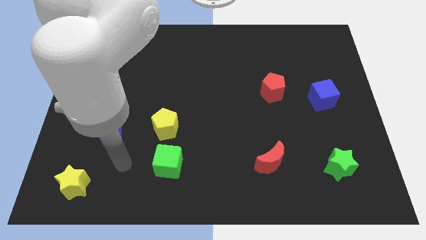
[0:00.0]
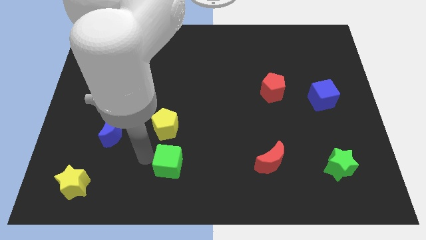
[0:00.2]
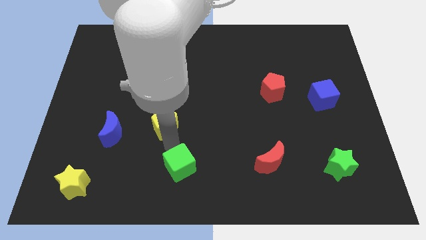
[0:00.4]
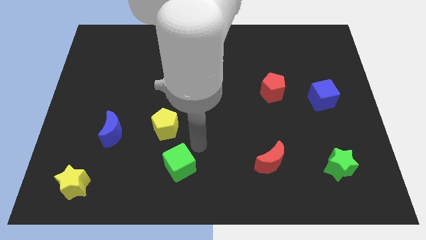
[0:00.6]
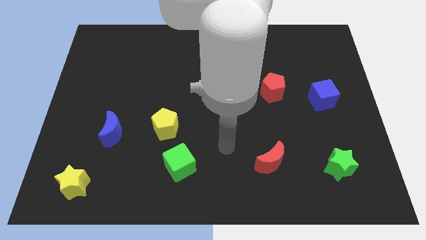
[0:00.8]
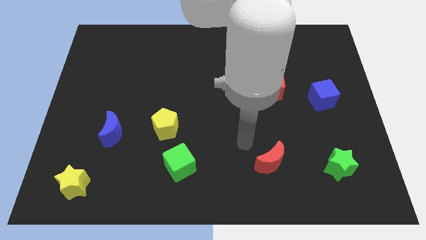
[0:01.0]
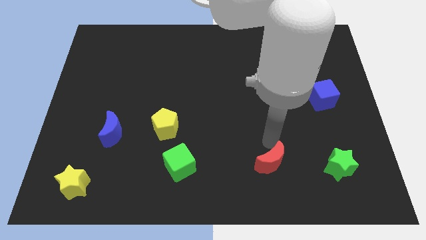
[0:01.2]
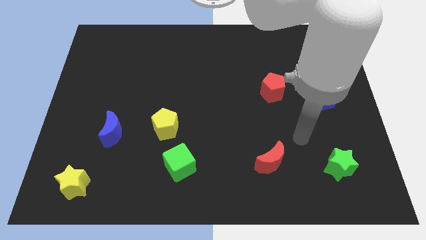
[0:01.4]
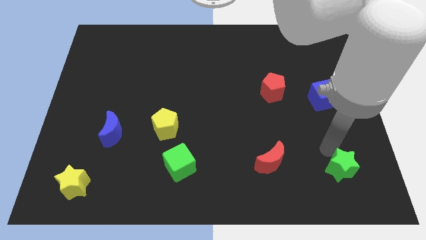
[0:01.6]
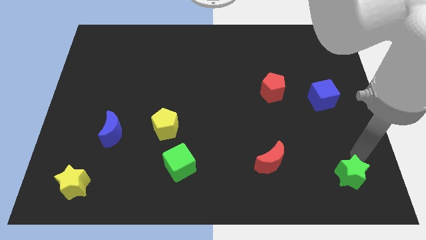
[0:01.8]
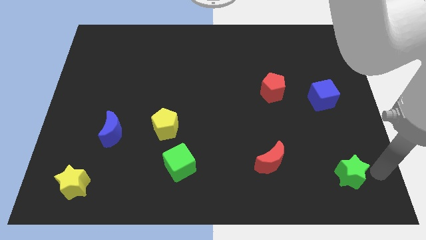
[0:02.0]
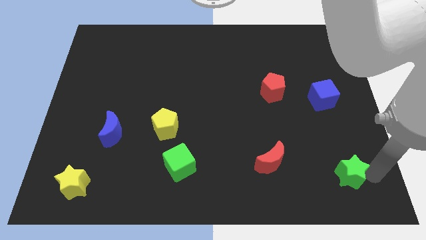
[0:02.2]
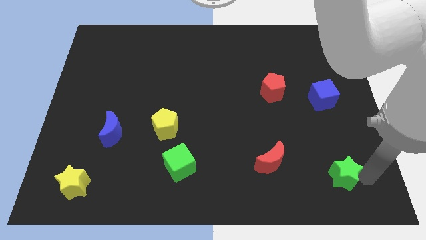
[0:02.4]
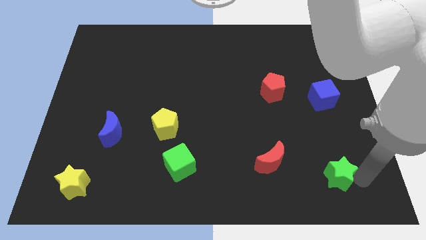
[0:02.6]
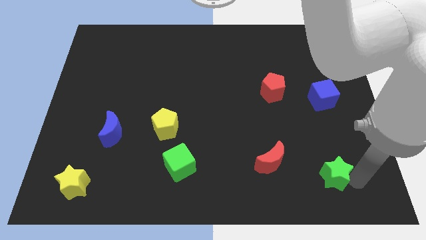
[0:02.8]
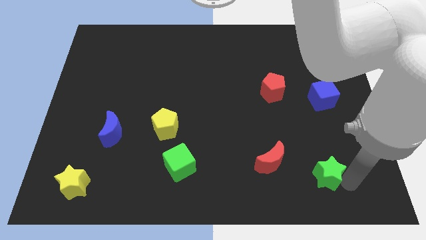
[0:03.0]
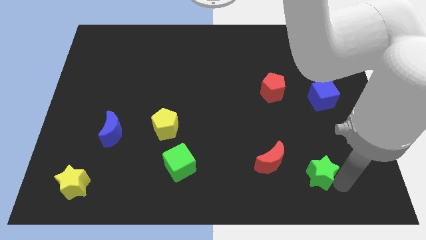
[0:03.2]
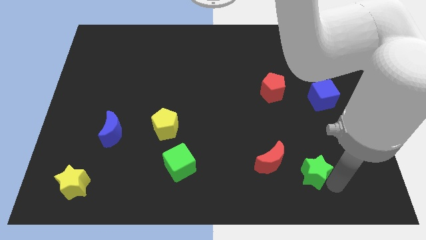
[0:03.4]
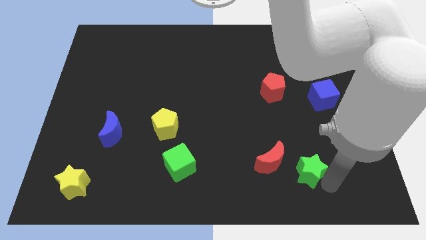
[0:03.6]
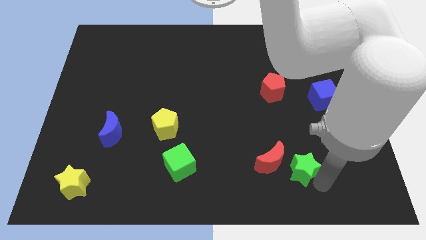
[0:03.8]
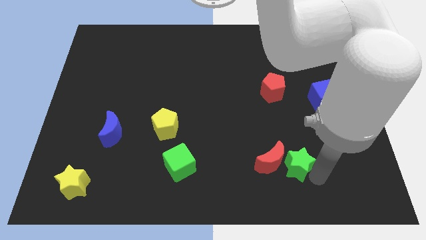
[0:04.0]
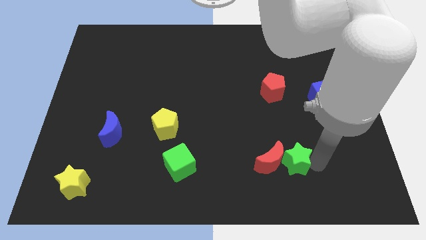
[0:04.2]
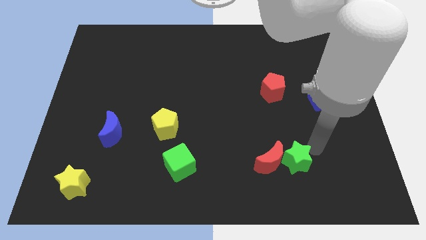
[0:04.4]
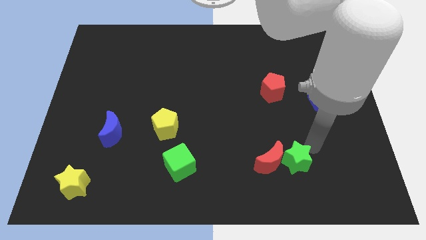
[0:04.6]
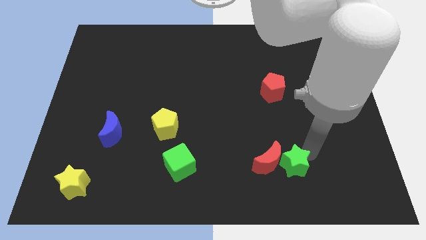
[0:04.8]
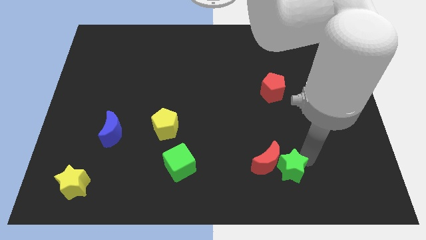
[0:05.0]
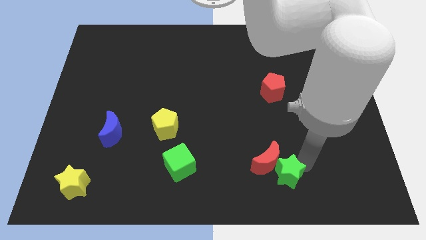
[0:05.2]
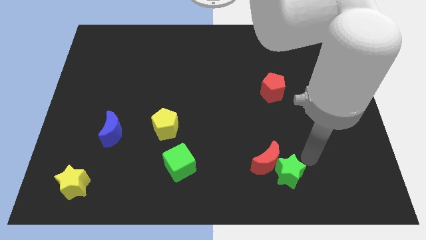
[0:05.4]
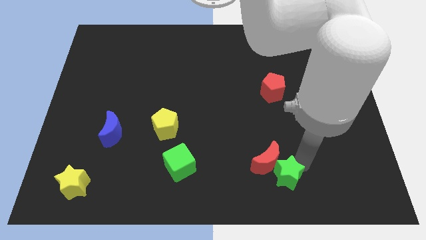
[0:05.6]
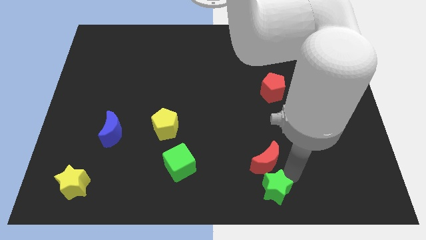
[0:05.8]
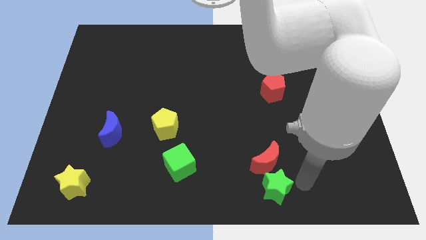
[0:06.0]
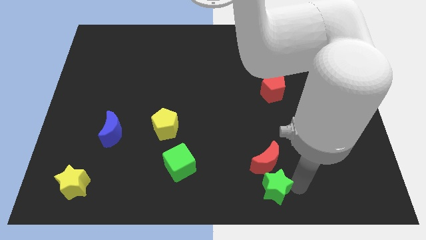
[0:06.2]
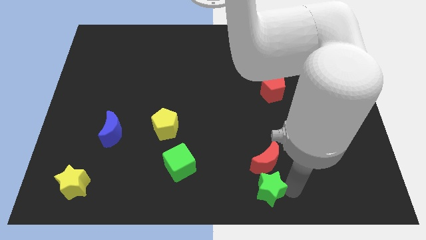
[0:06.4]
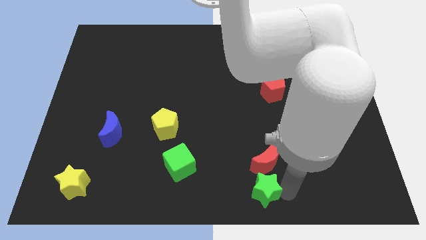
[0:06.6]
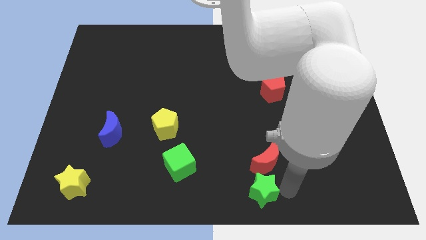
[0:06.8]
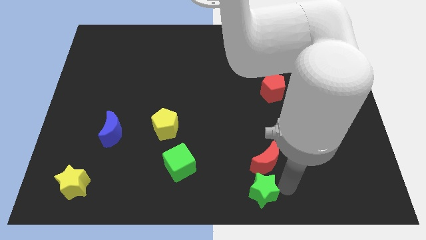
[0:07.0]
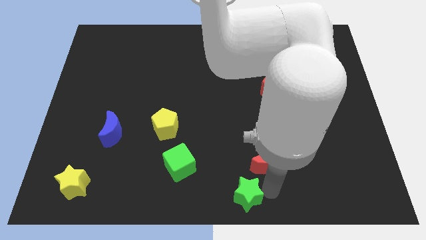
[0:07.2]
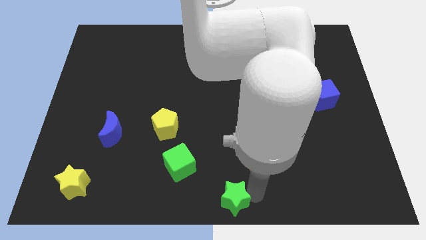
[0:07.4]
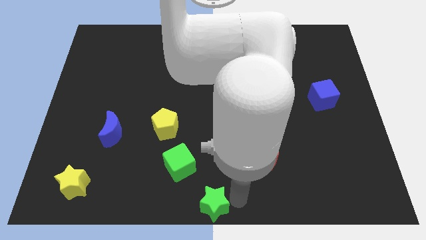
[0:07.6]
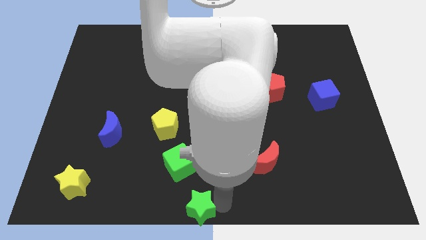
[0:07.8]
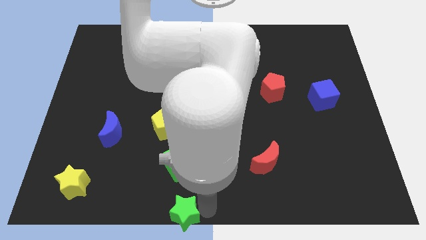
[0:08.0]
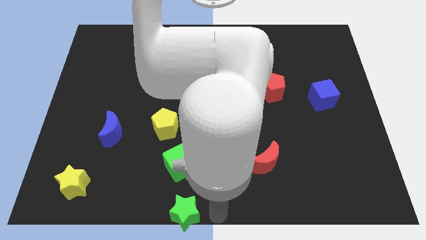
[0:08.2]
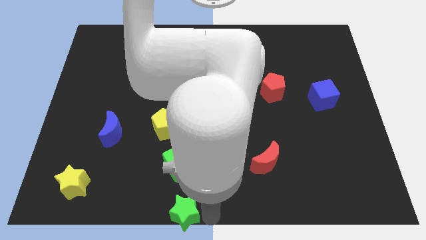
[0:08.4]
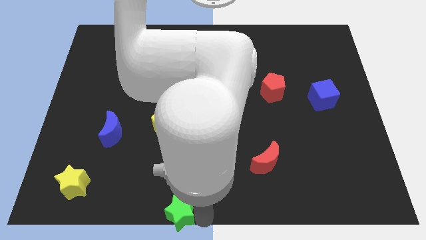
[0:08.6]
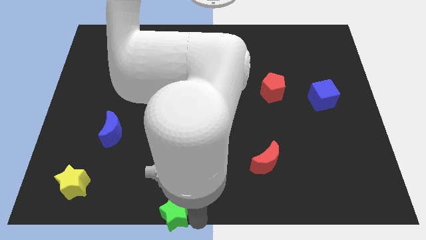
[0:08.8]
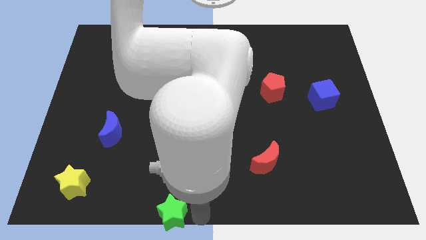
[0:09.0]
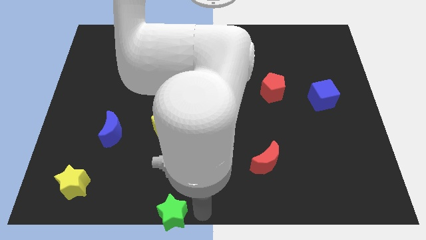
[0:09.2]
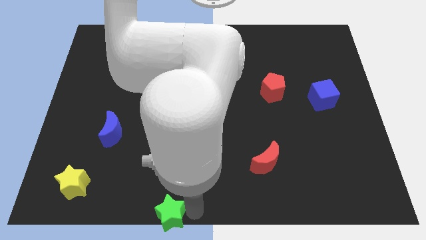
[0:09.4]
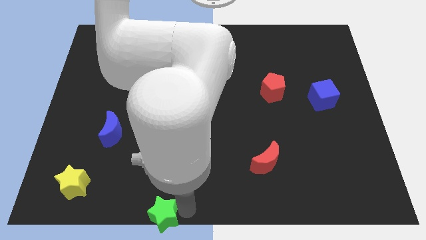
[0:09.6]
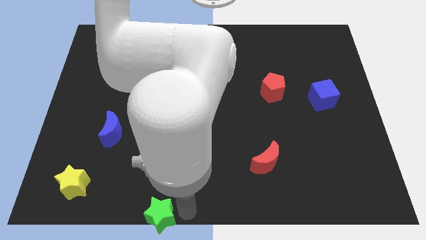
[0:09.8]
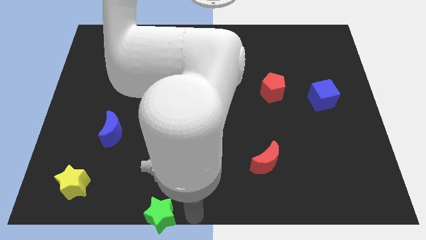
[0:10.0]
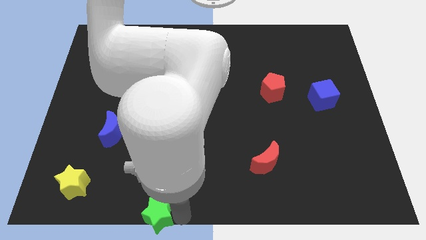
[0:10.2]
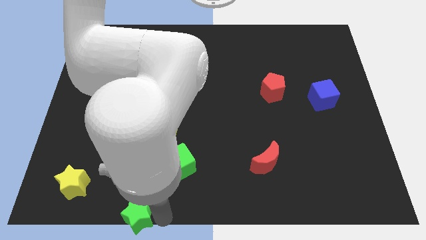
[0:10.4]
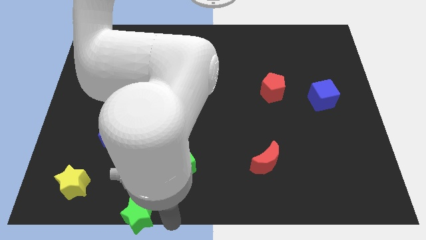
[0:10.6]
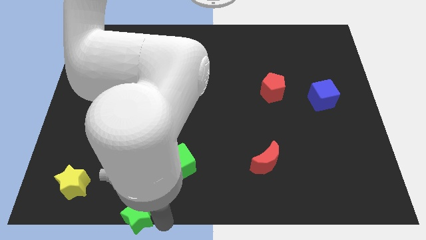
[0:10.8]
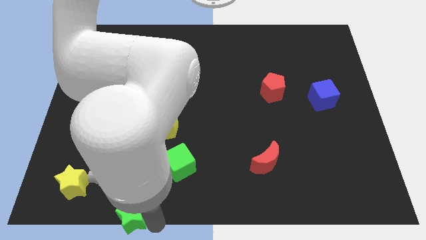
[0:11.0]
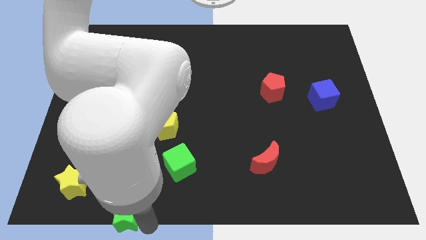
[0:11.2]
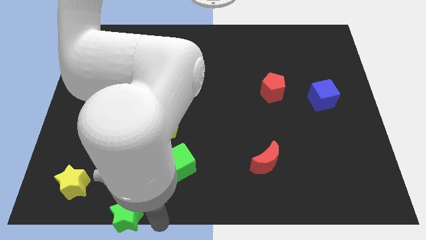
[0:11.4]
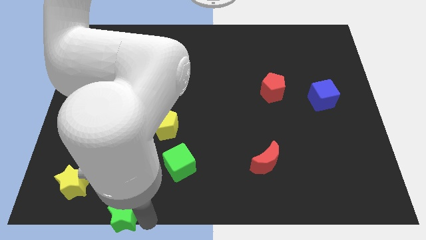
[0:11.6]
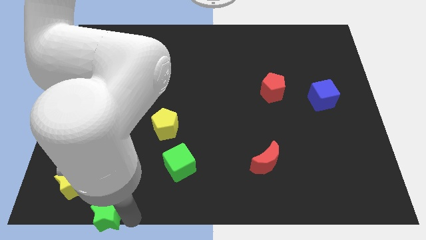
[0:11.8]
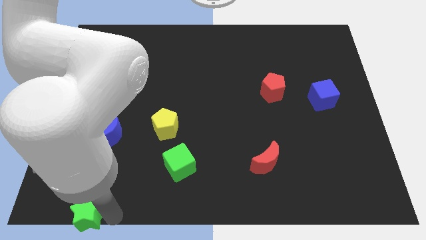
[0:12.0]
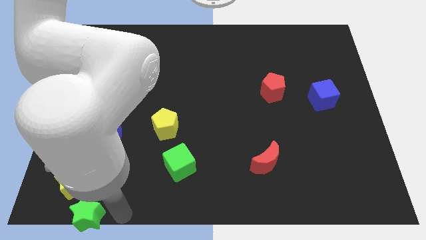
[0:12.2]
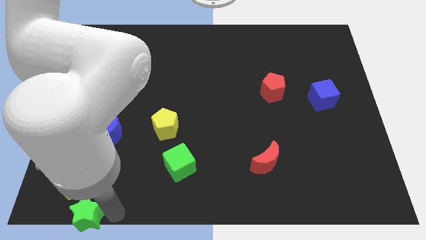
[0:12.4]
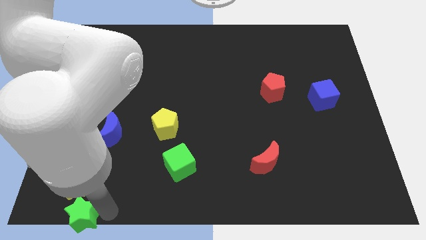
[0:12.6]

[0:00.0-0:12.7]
push the green star to the lower left corner
